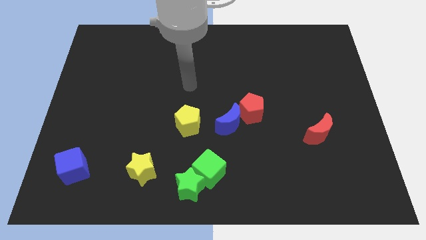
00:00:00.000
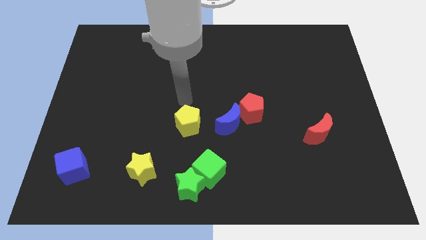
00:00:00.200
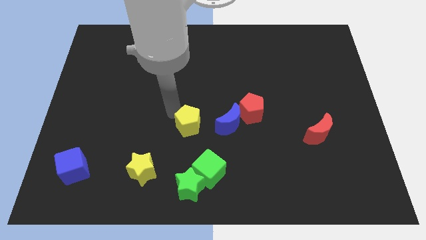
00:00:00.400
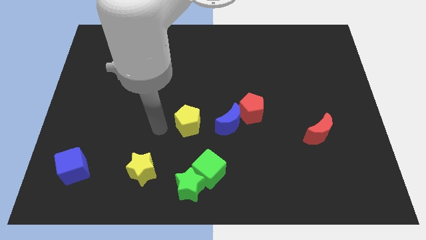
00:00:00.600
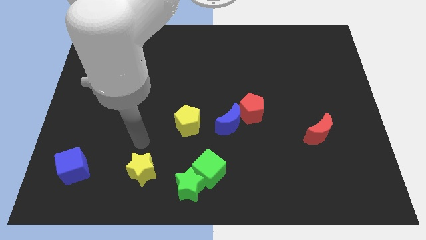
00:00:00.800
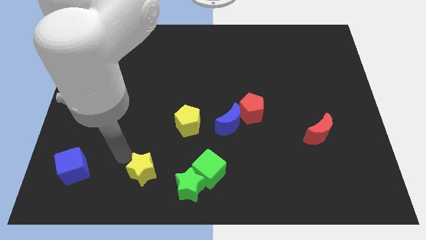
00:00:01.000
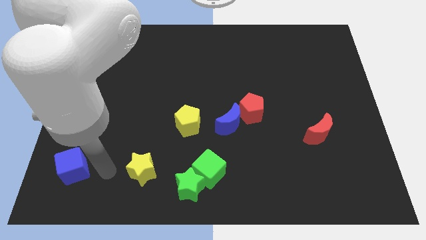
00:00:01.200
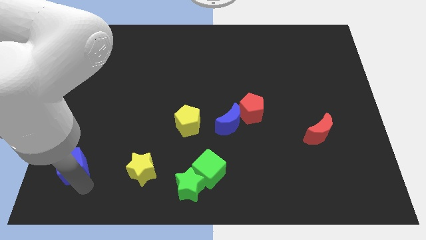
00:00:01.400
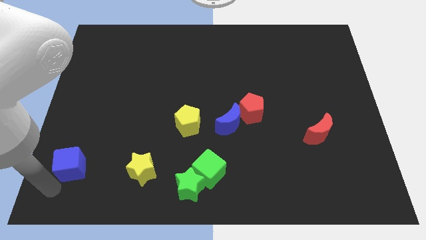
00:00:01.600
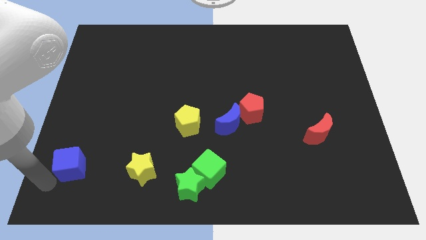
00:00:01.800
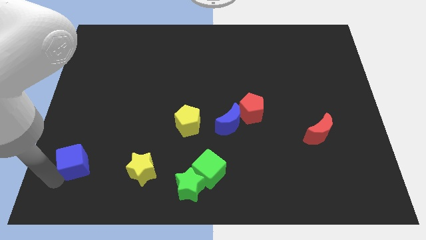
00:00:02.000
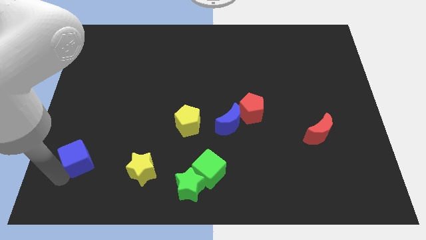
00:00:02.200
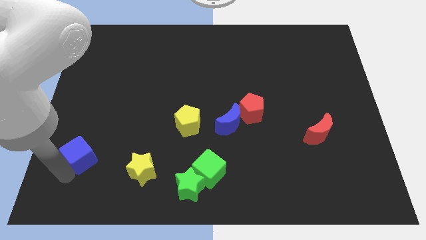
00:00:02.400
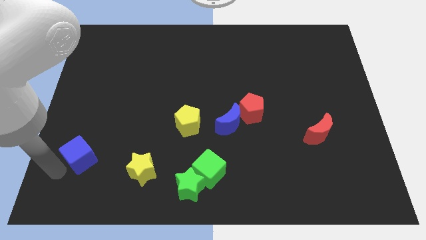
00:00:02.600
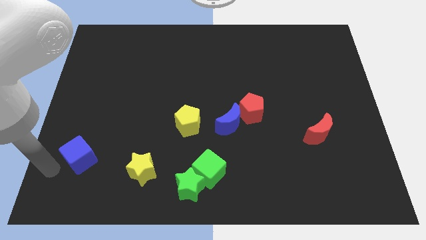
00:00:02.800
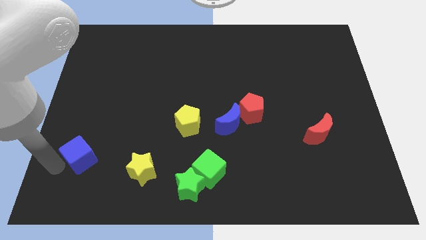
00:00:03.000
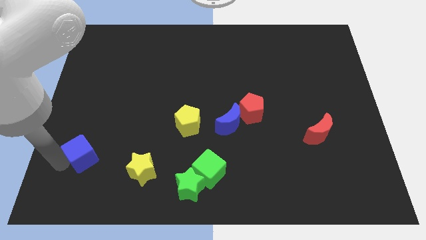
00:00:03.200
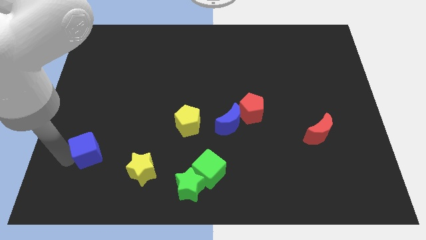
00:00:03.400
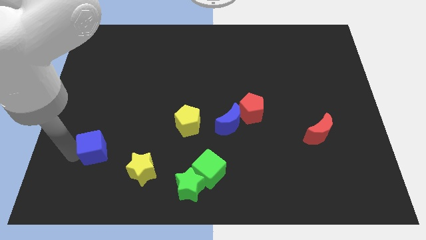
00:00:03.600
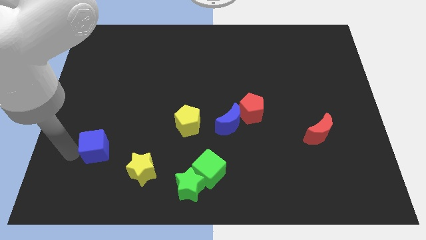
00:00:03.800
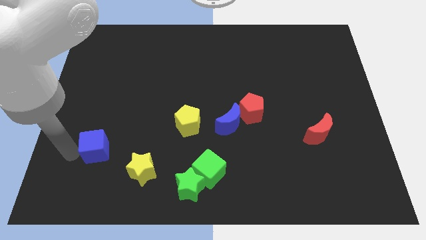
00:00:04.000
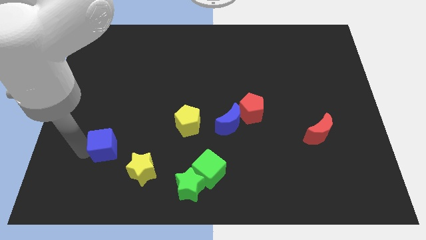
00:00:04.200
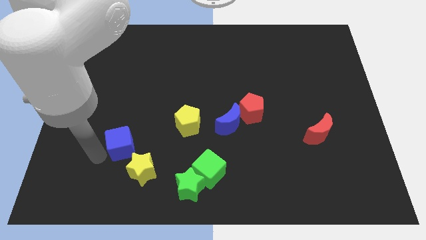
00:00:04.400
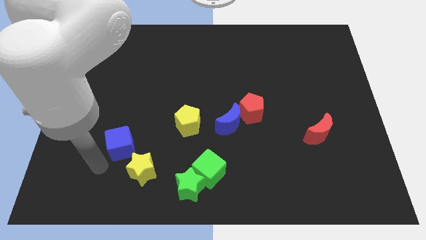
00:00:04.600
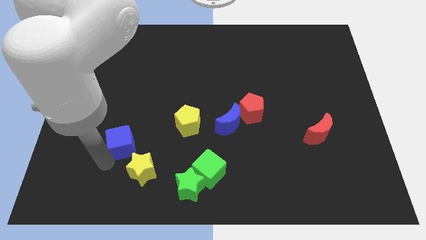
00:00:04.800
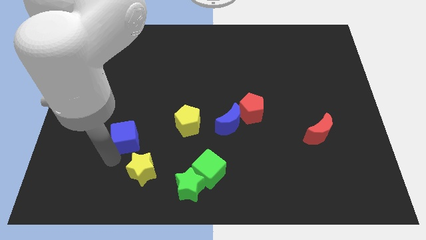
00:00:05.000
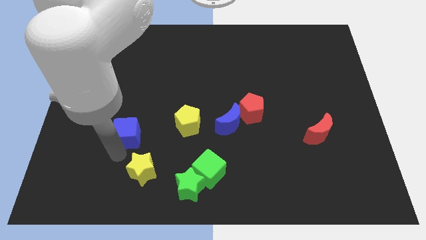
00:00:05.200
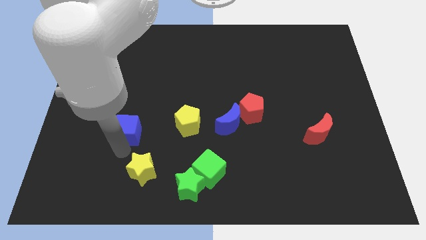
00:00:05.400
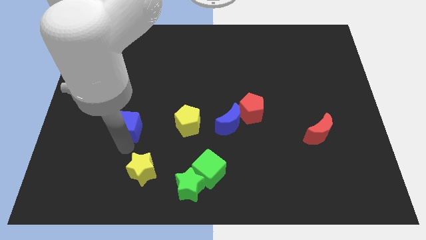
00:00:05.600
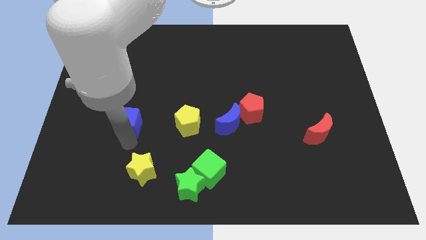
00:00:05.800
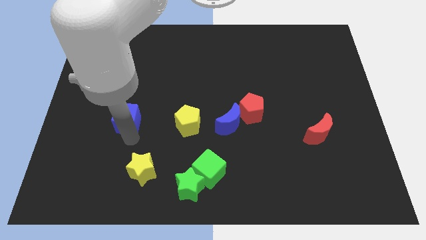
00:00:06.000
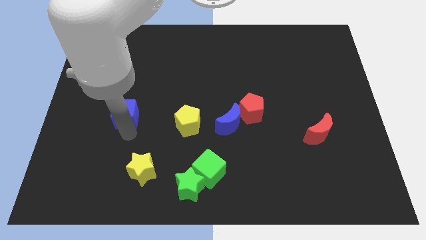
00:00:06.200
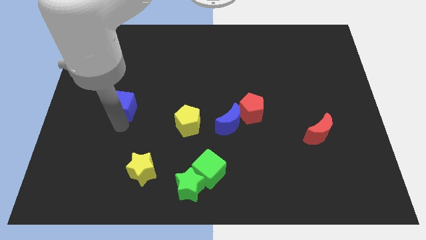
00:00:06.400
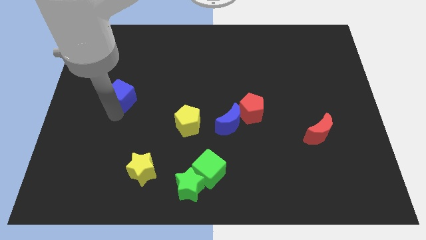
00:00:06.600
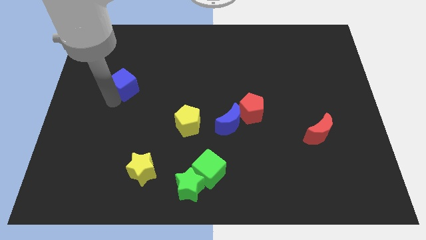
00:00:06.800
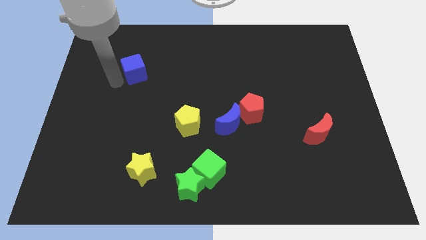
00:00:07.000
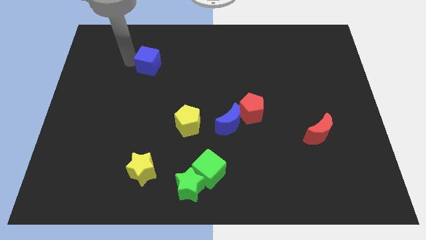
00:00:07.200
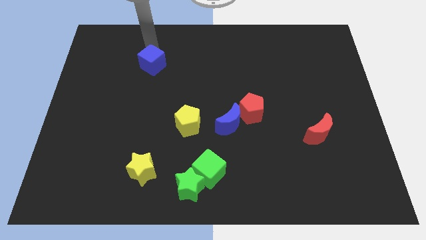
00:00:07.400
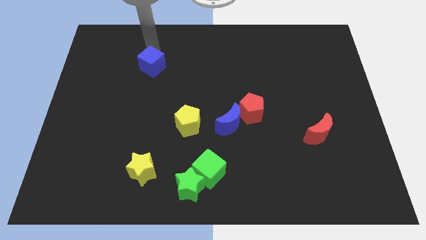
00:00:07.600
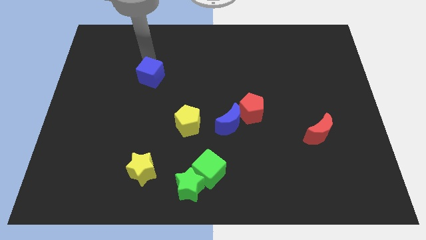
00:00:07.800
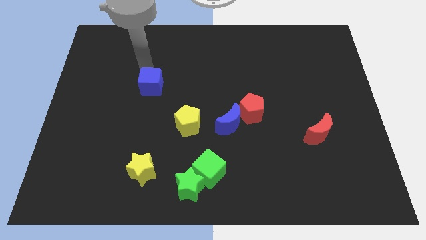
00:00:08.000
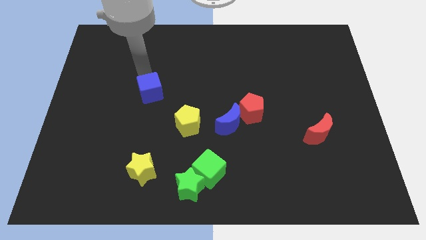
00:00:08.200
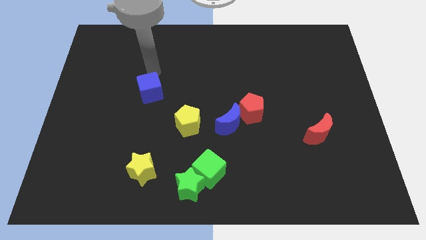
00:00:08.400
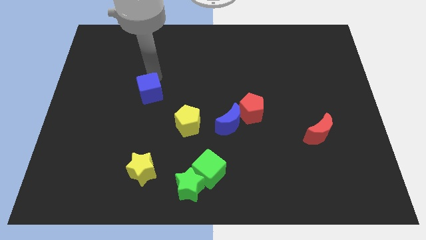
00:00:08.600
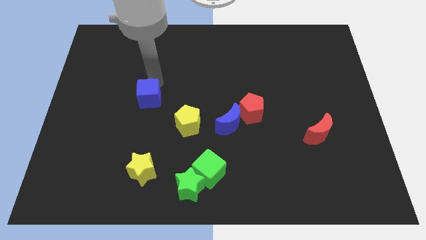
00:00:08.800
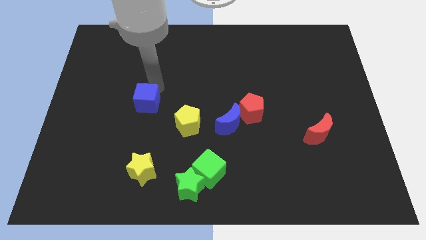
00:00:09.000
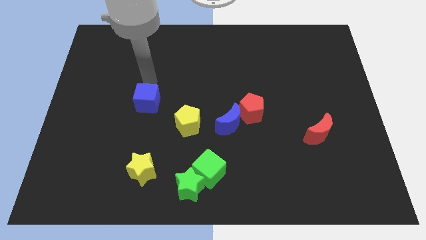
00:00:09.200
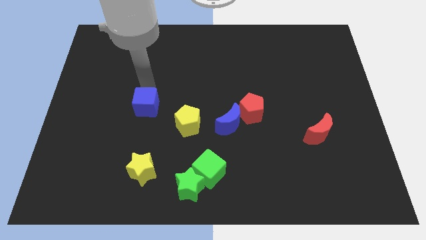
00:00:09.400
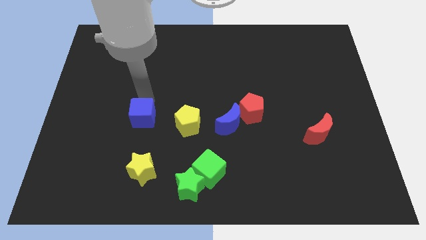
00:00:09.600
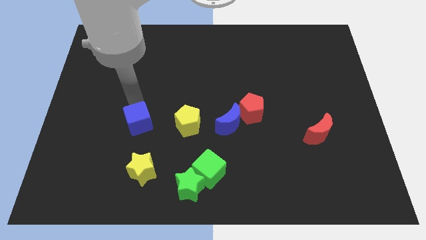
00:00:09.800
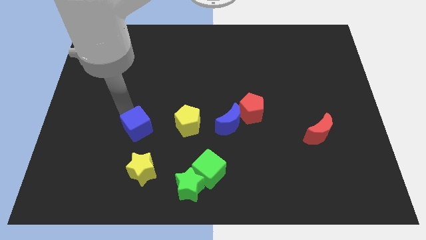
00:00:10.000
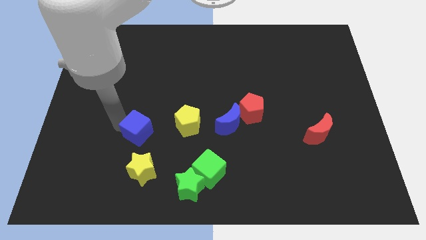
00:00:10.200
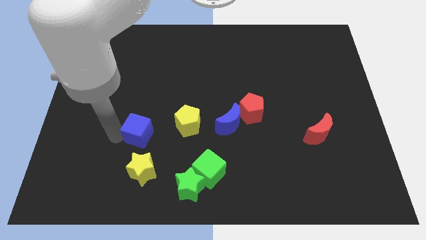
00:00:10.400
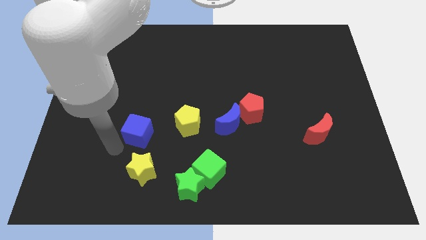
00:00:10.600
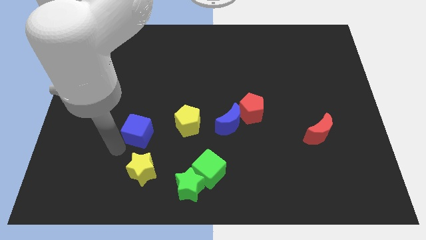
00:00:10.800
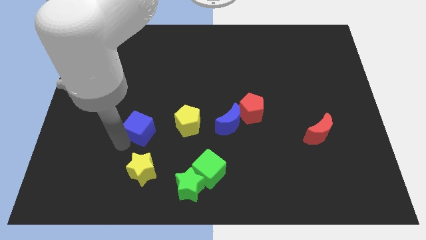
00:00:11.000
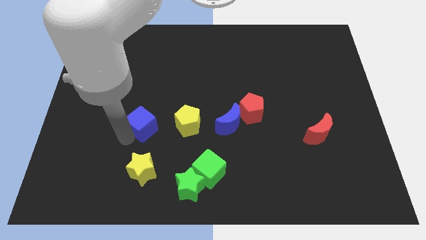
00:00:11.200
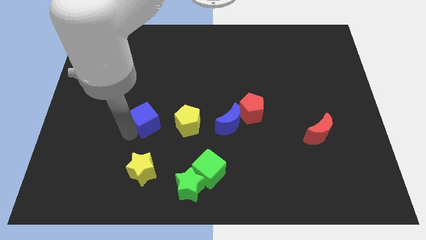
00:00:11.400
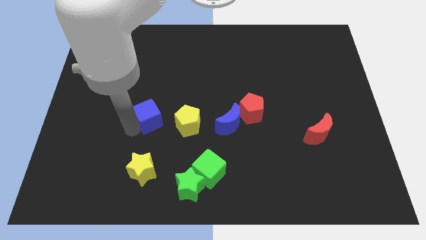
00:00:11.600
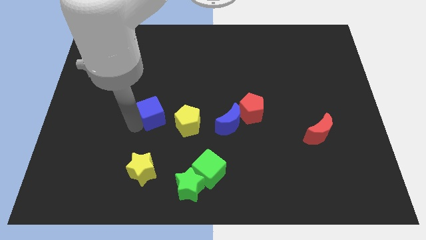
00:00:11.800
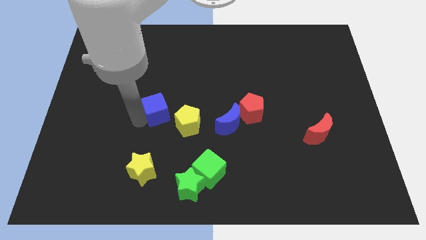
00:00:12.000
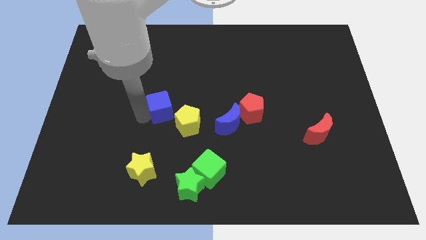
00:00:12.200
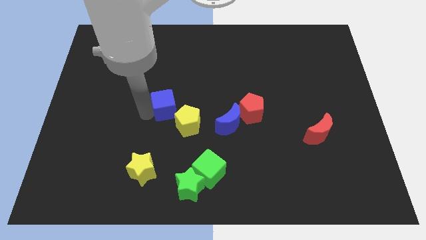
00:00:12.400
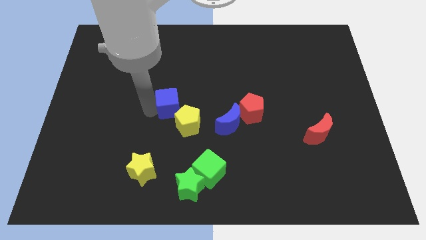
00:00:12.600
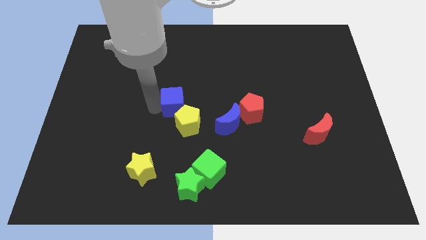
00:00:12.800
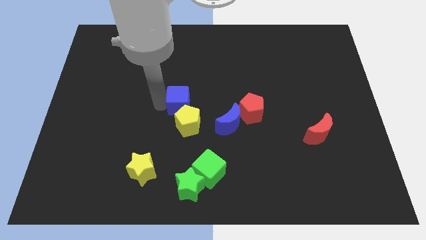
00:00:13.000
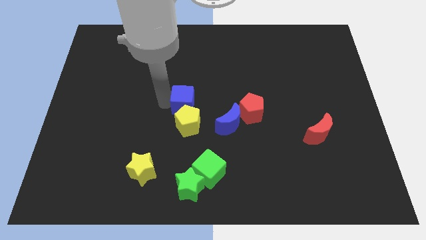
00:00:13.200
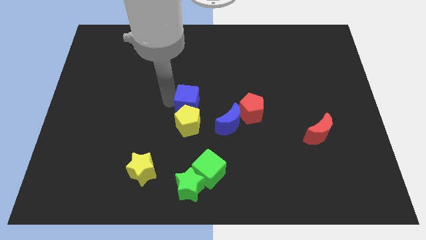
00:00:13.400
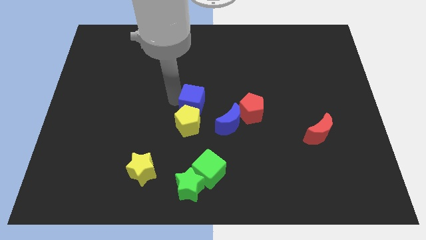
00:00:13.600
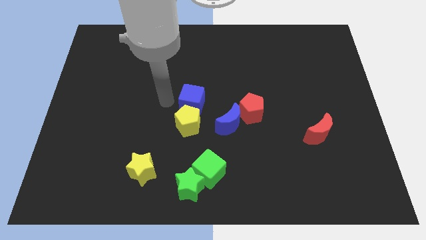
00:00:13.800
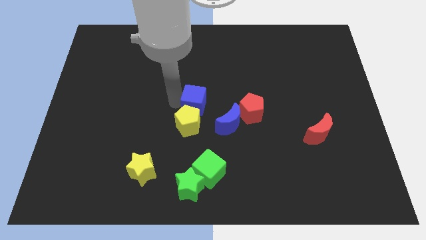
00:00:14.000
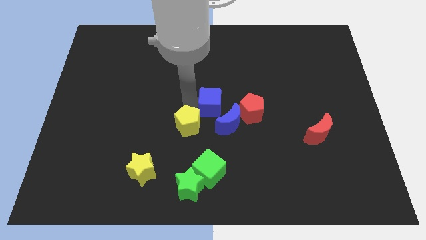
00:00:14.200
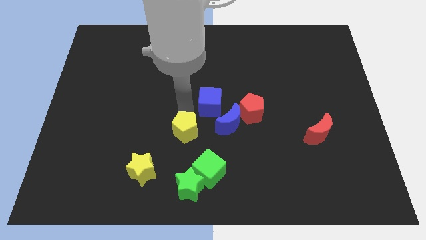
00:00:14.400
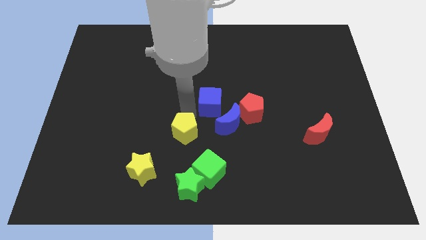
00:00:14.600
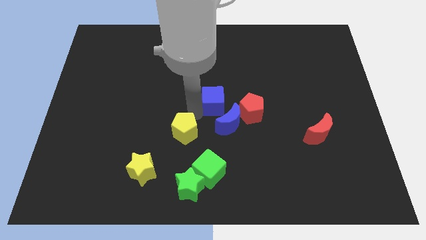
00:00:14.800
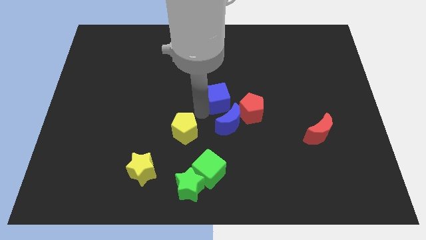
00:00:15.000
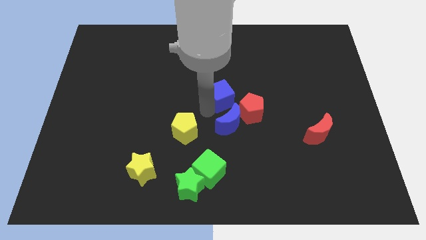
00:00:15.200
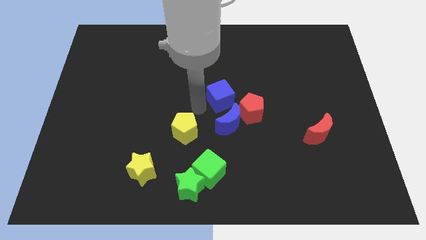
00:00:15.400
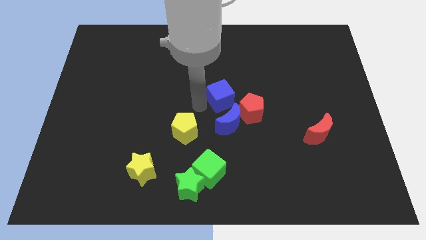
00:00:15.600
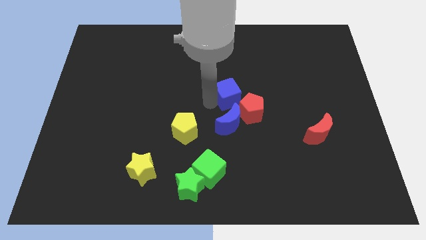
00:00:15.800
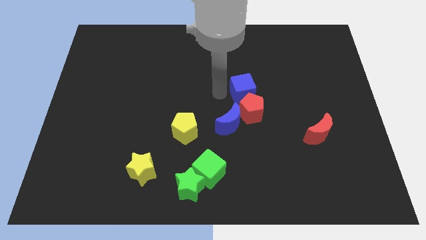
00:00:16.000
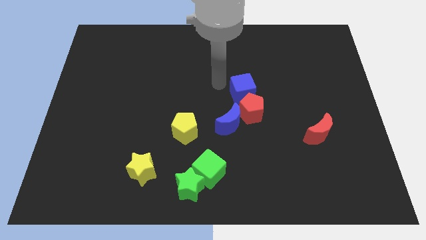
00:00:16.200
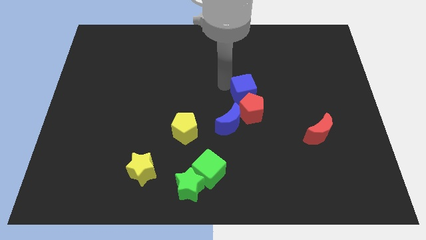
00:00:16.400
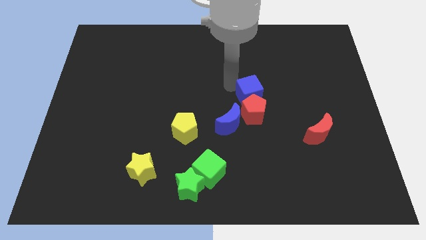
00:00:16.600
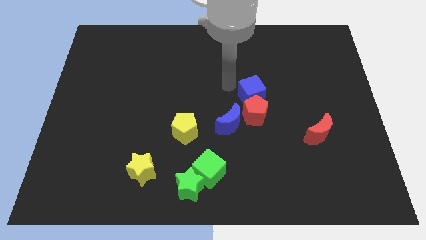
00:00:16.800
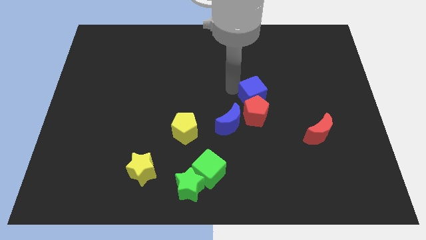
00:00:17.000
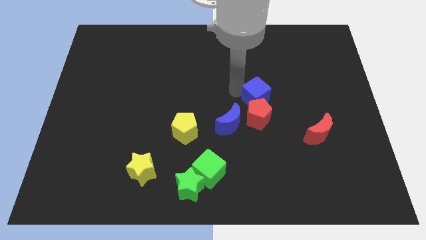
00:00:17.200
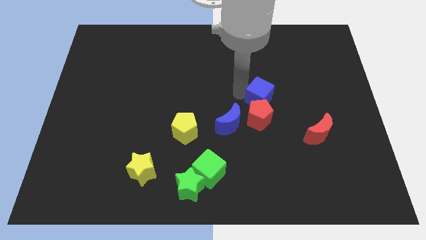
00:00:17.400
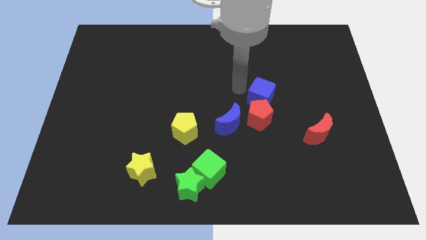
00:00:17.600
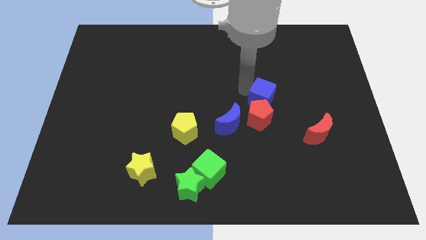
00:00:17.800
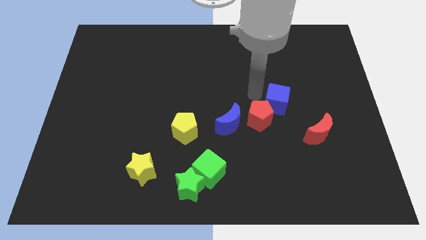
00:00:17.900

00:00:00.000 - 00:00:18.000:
put the blue cube to the right side of the red pentagon
